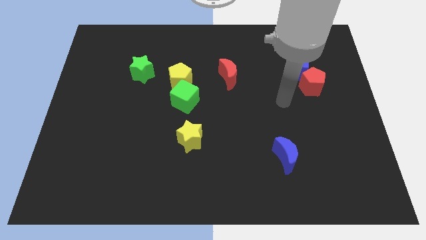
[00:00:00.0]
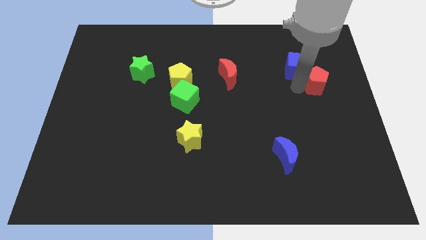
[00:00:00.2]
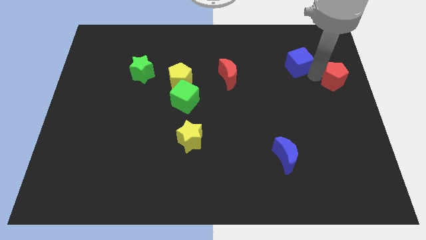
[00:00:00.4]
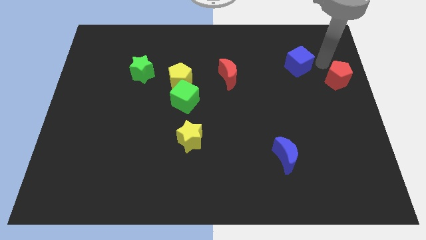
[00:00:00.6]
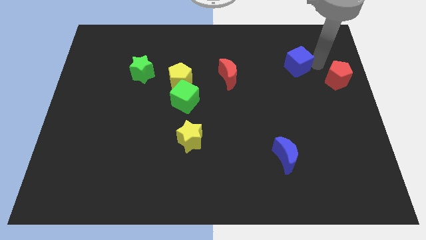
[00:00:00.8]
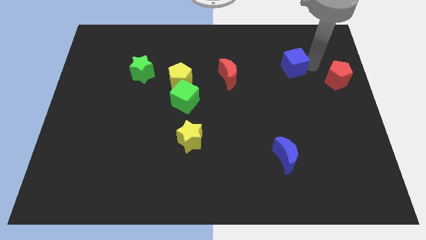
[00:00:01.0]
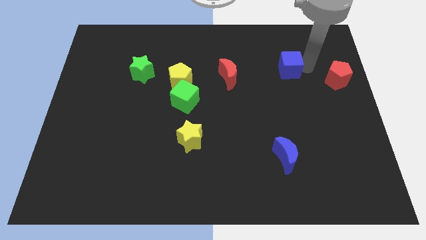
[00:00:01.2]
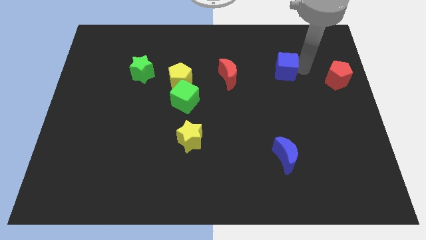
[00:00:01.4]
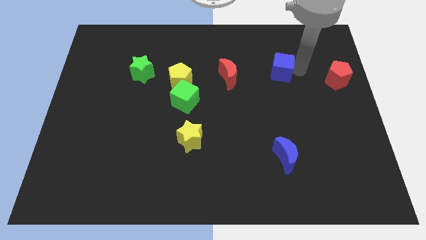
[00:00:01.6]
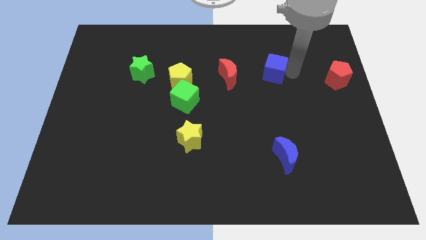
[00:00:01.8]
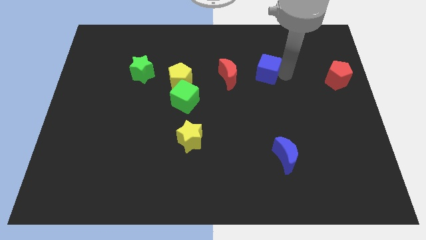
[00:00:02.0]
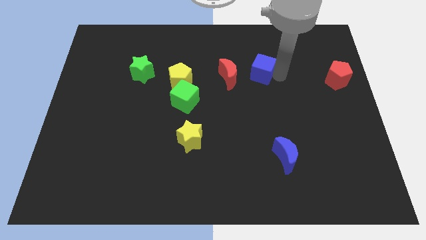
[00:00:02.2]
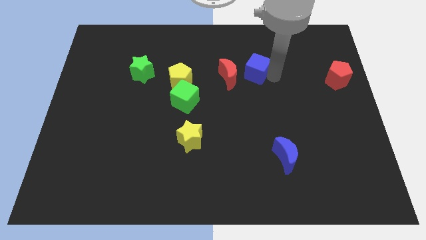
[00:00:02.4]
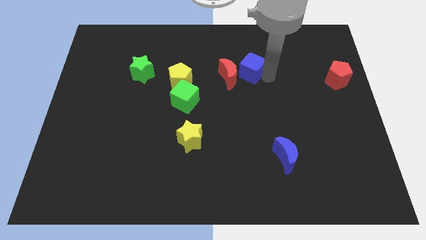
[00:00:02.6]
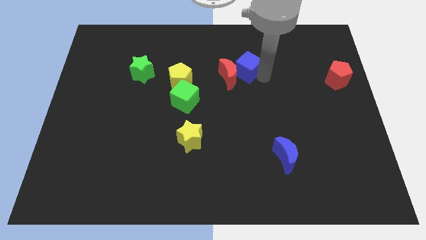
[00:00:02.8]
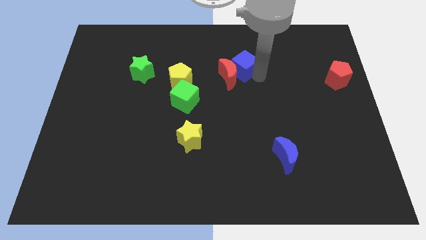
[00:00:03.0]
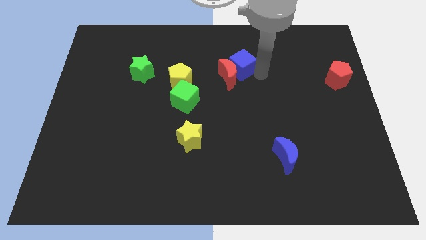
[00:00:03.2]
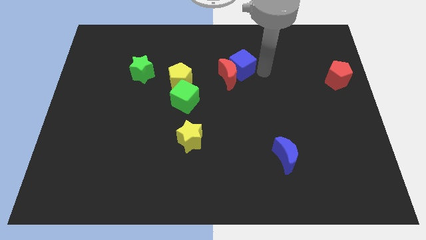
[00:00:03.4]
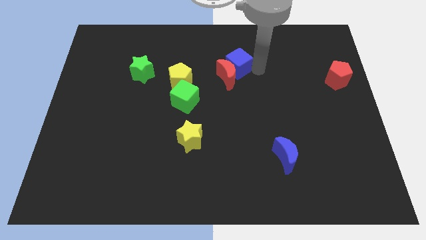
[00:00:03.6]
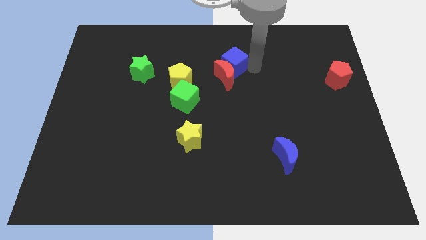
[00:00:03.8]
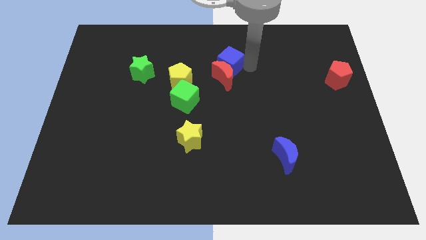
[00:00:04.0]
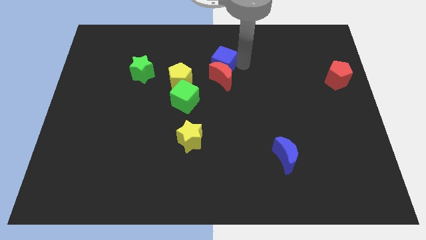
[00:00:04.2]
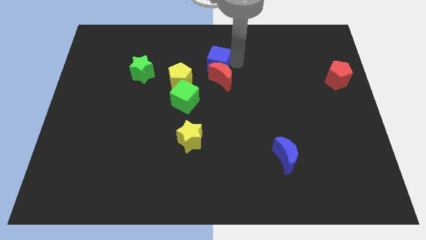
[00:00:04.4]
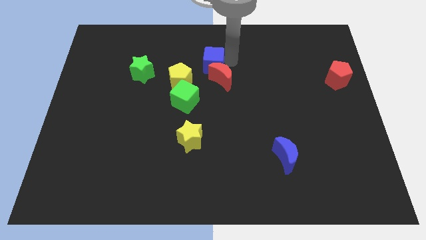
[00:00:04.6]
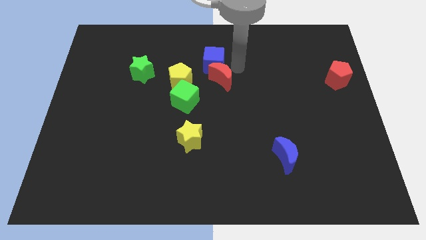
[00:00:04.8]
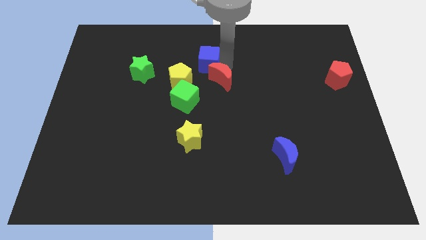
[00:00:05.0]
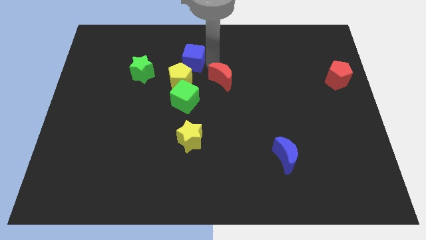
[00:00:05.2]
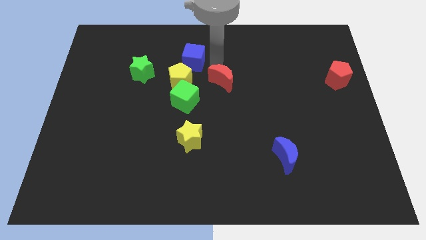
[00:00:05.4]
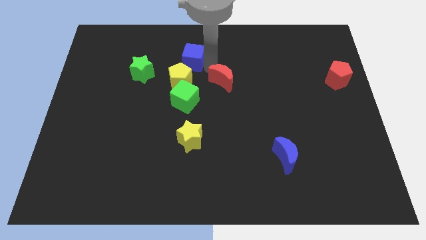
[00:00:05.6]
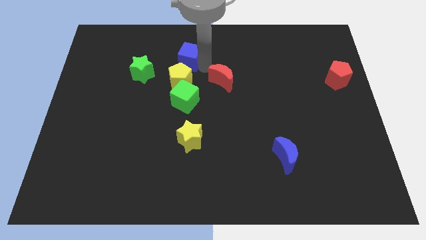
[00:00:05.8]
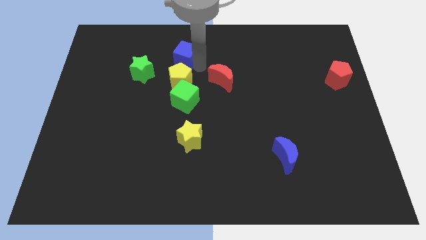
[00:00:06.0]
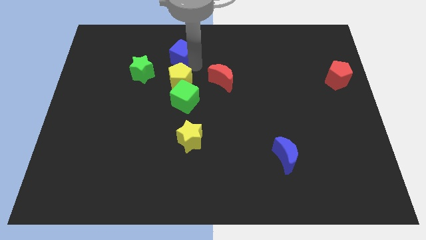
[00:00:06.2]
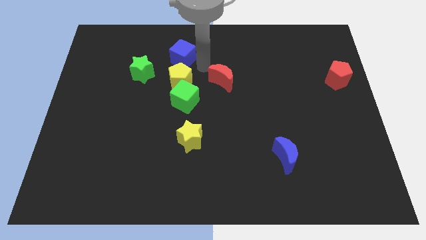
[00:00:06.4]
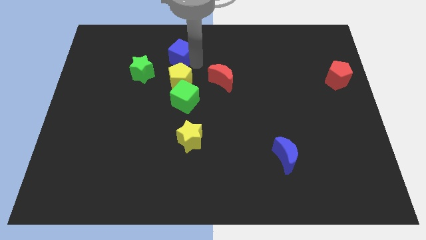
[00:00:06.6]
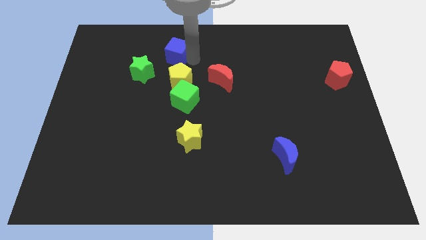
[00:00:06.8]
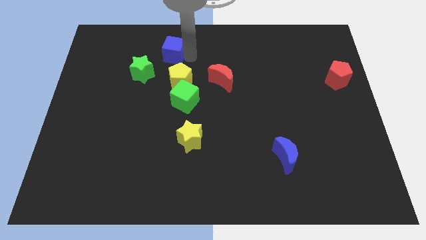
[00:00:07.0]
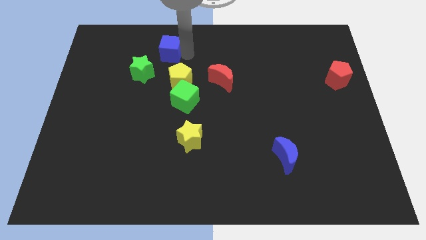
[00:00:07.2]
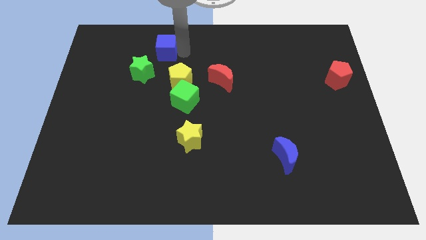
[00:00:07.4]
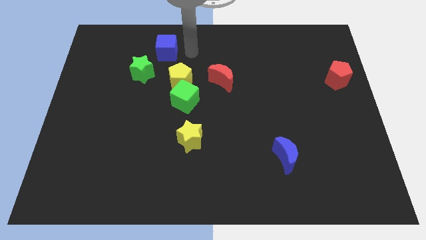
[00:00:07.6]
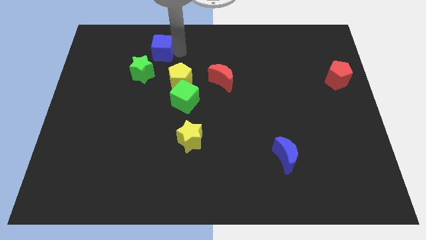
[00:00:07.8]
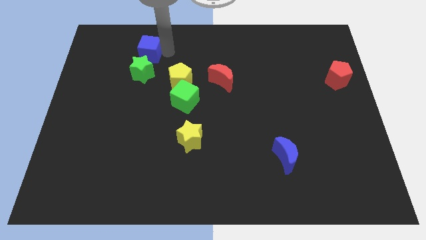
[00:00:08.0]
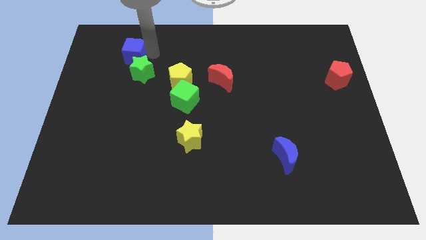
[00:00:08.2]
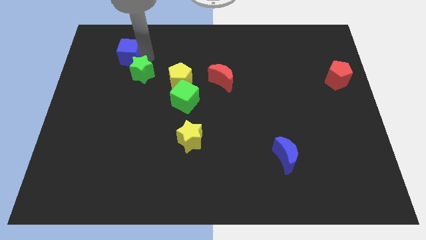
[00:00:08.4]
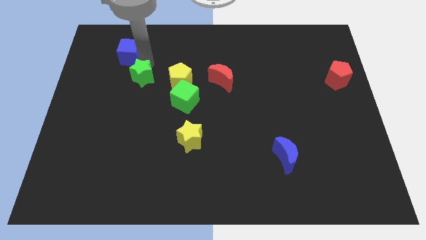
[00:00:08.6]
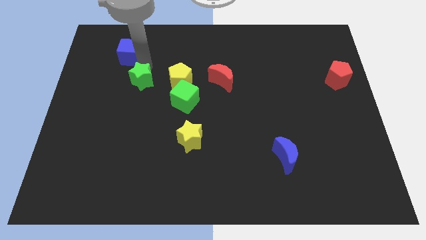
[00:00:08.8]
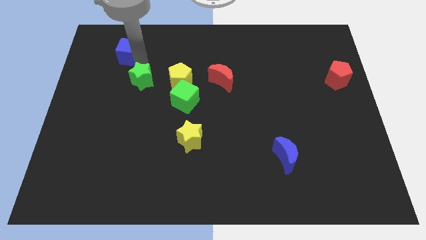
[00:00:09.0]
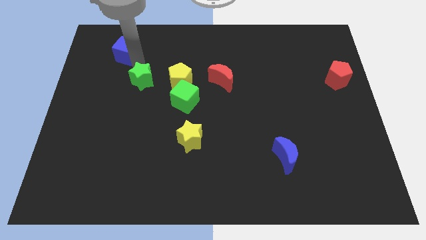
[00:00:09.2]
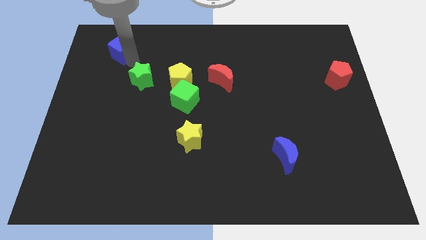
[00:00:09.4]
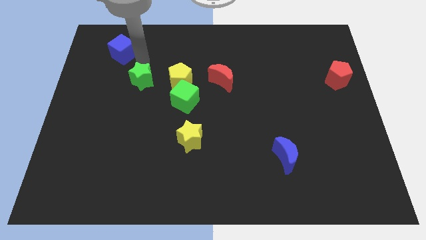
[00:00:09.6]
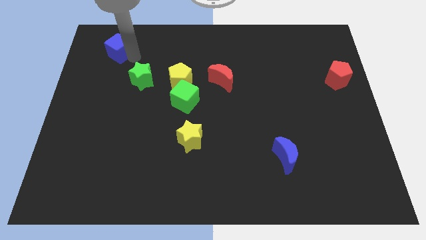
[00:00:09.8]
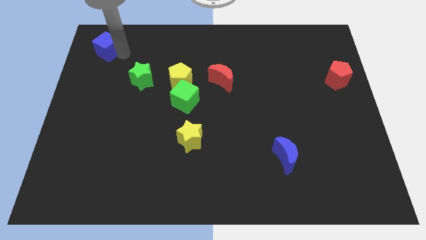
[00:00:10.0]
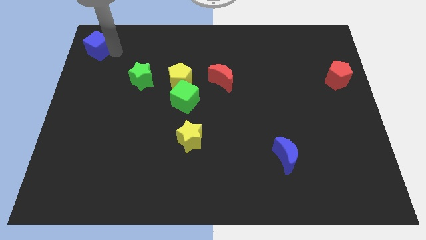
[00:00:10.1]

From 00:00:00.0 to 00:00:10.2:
move the blue cube to the top left of the board
